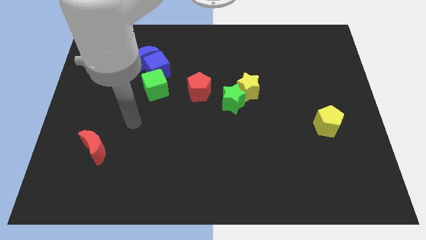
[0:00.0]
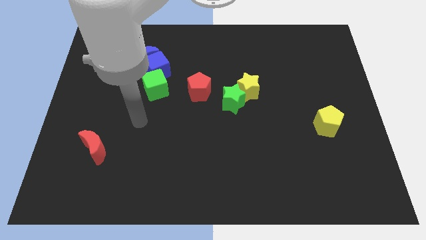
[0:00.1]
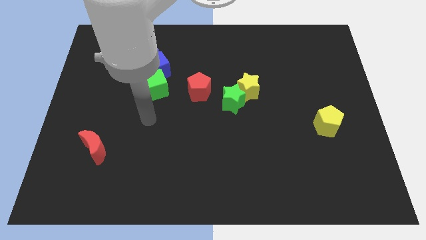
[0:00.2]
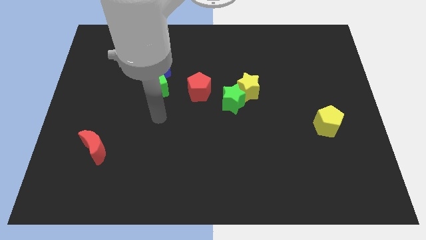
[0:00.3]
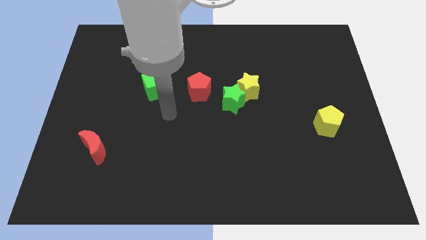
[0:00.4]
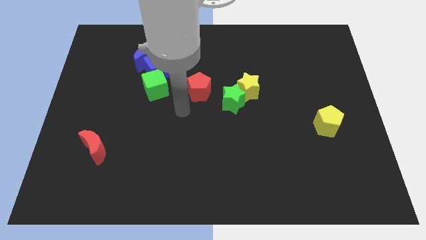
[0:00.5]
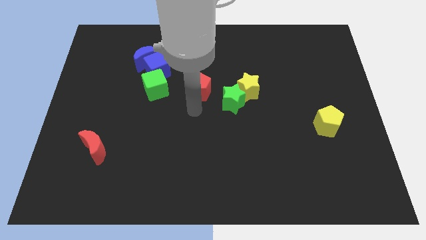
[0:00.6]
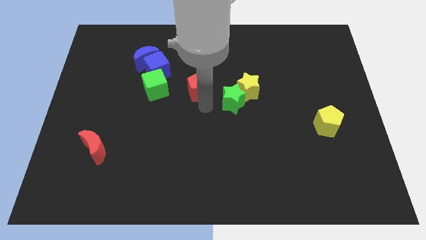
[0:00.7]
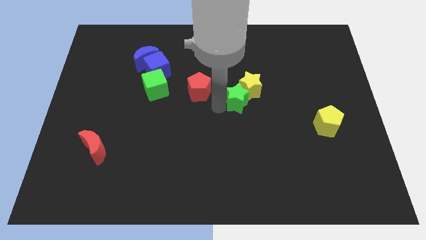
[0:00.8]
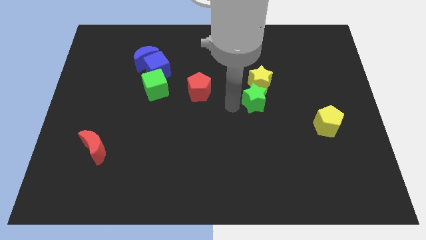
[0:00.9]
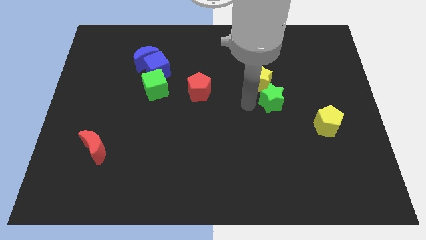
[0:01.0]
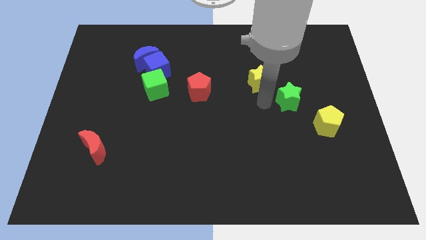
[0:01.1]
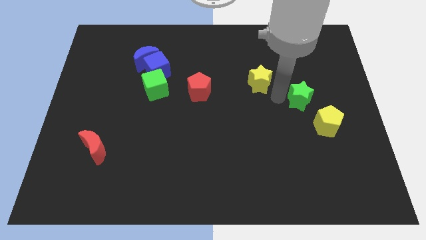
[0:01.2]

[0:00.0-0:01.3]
separate the yellow star from the green star

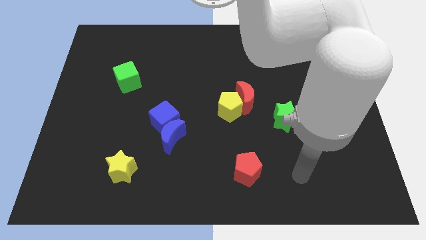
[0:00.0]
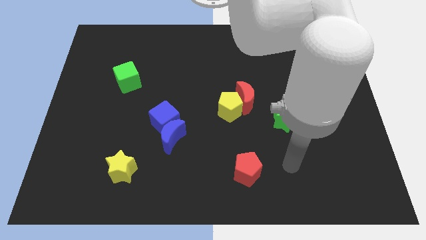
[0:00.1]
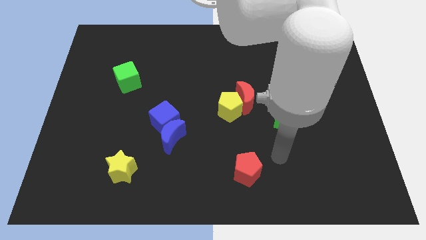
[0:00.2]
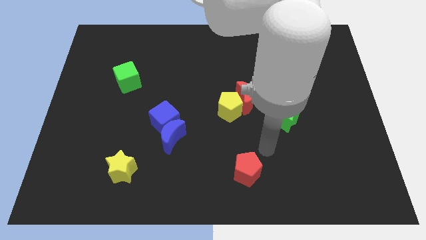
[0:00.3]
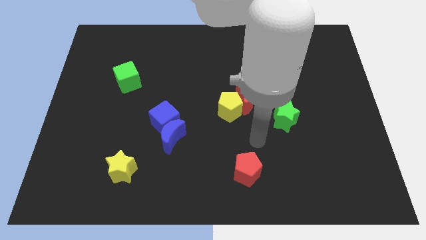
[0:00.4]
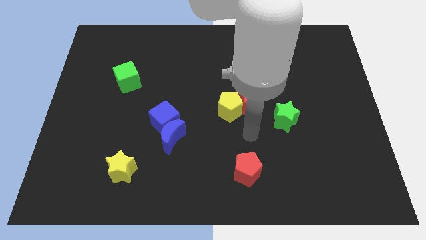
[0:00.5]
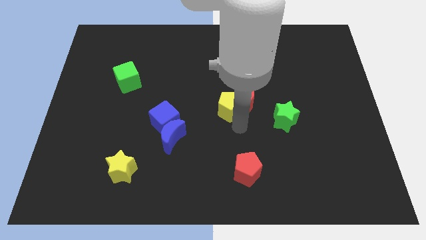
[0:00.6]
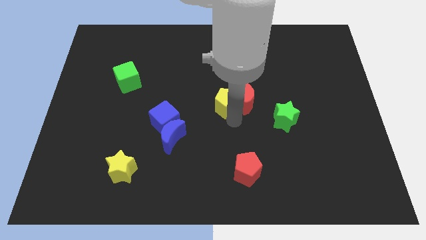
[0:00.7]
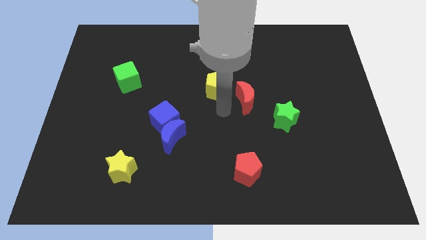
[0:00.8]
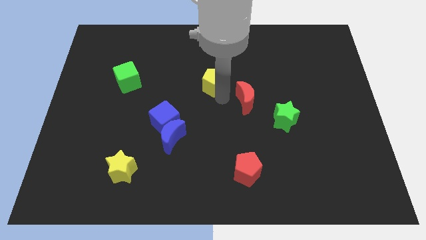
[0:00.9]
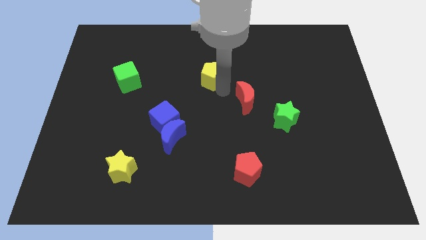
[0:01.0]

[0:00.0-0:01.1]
separate the red moon from the yellow pentagon

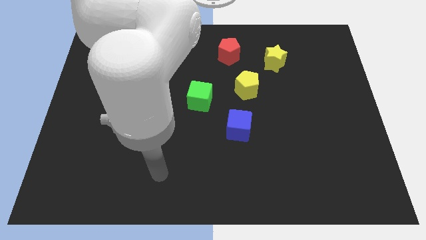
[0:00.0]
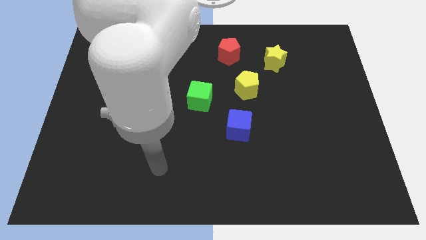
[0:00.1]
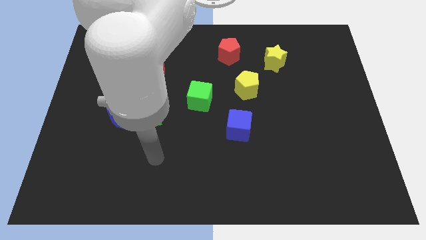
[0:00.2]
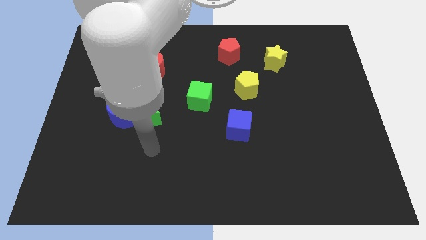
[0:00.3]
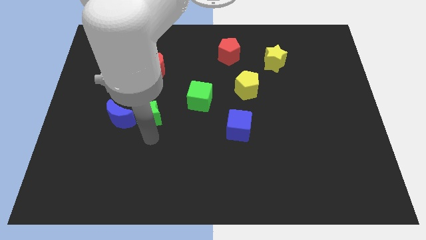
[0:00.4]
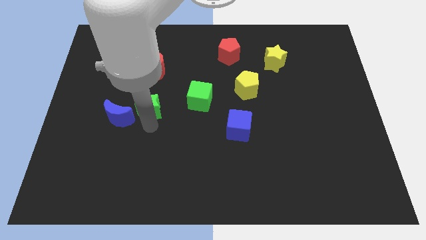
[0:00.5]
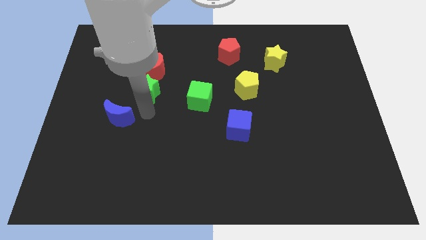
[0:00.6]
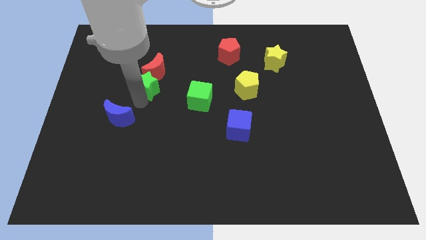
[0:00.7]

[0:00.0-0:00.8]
move the blue moon away from the green star

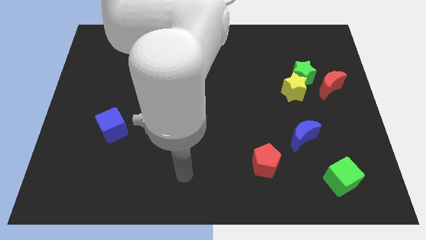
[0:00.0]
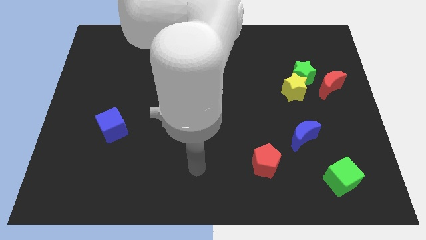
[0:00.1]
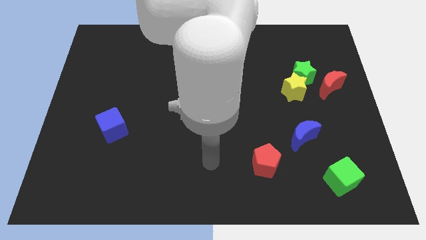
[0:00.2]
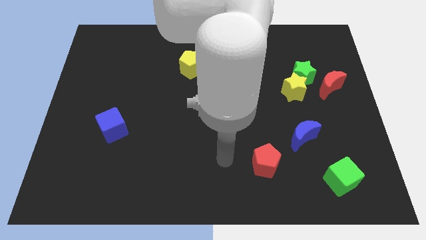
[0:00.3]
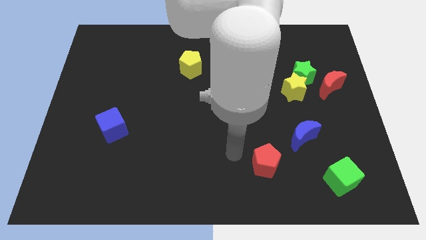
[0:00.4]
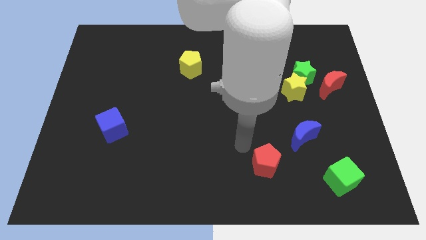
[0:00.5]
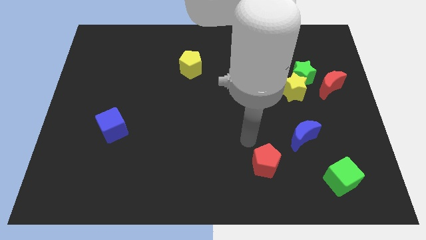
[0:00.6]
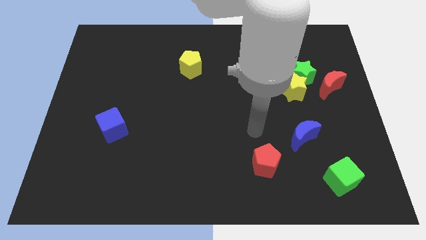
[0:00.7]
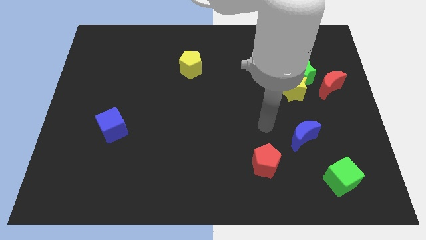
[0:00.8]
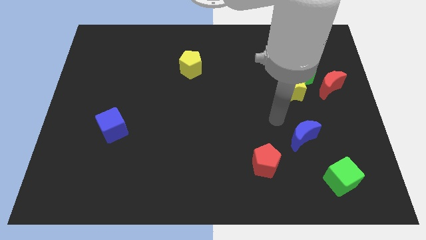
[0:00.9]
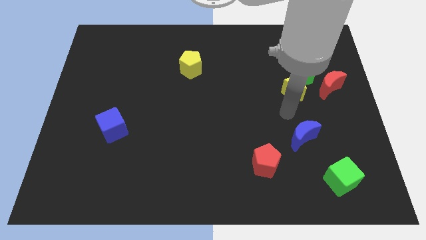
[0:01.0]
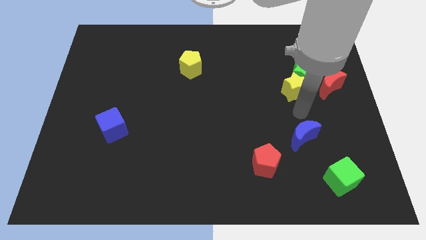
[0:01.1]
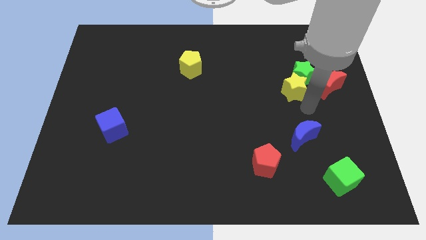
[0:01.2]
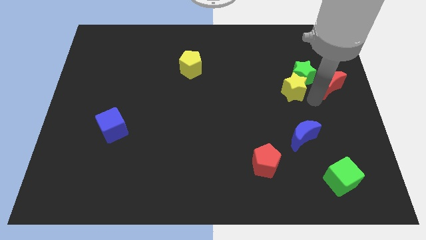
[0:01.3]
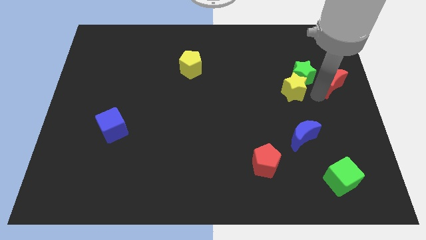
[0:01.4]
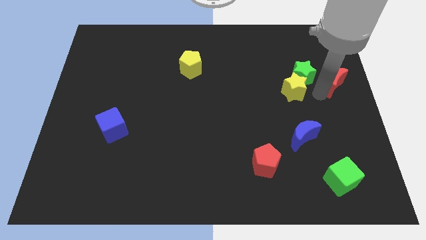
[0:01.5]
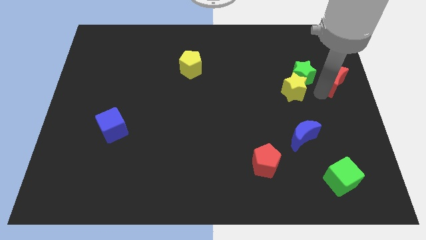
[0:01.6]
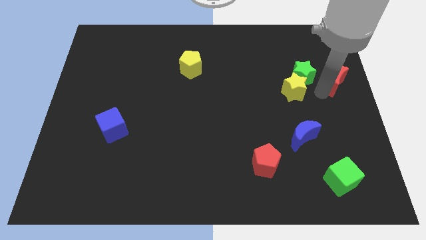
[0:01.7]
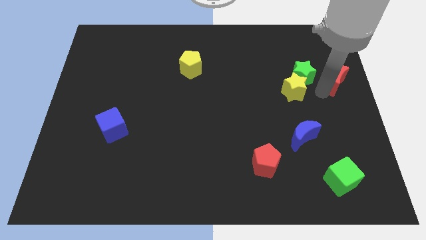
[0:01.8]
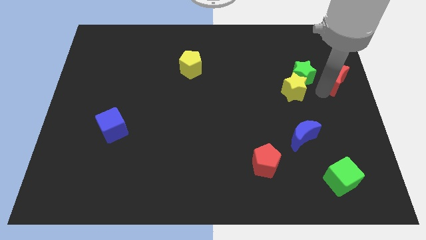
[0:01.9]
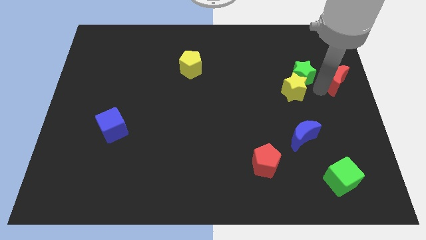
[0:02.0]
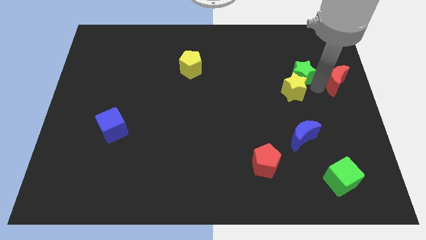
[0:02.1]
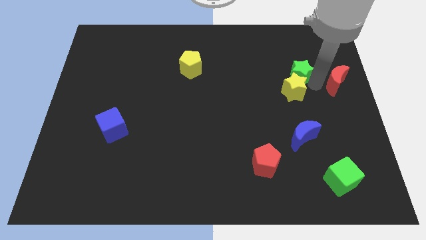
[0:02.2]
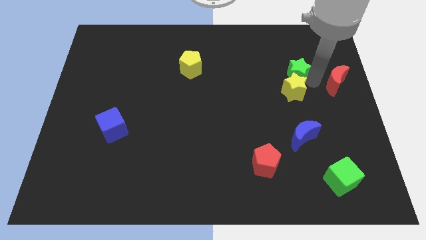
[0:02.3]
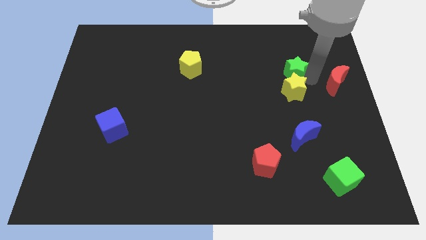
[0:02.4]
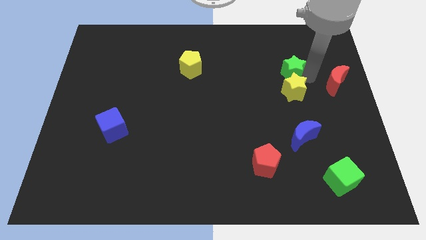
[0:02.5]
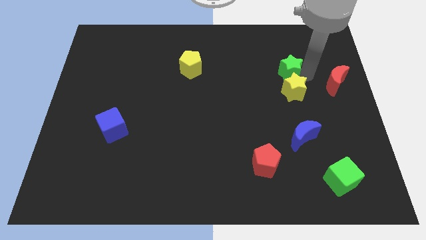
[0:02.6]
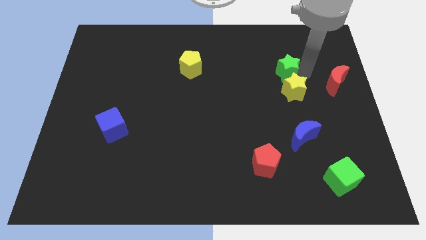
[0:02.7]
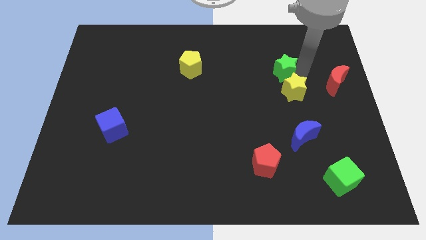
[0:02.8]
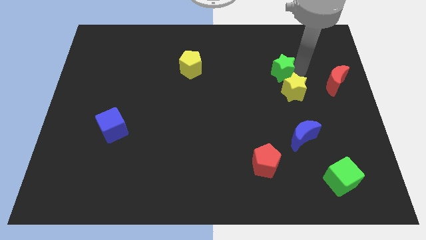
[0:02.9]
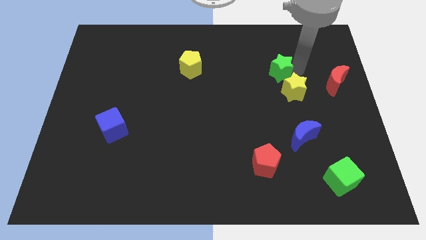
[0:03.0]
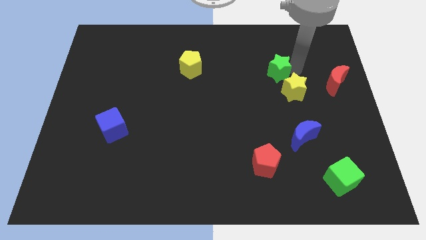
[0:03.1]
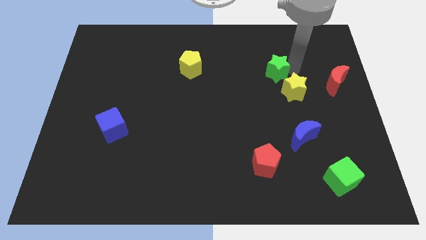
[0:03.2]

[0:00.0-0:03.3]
separate the green star from the yellow star and red moon

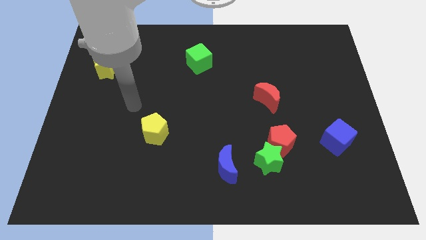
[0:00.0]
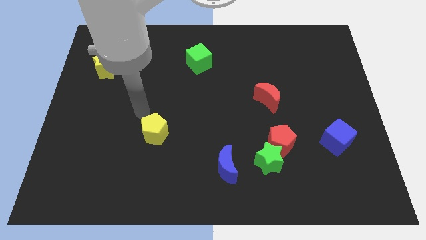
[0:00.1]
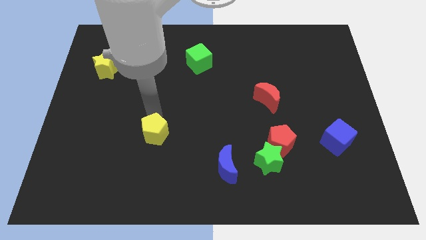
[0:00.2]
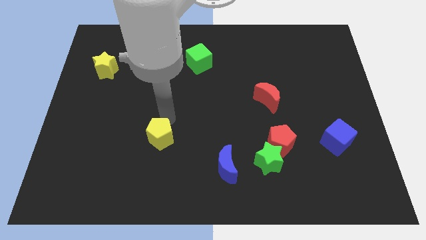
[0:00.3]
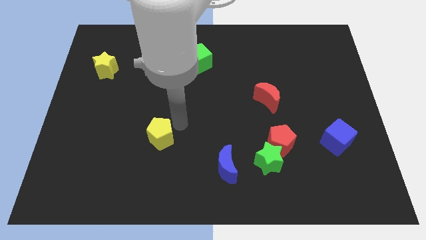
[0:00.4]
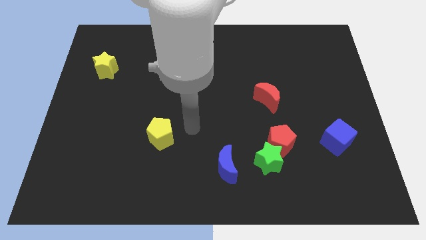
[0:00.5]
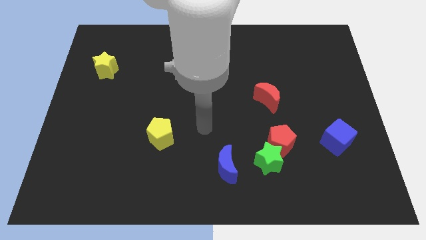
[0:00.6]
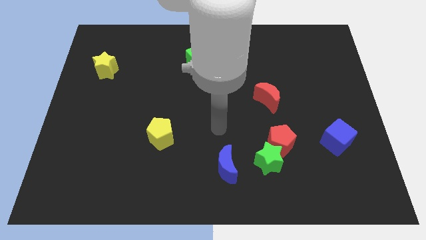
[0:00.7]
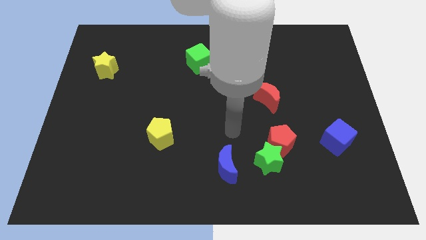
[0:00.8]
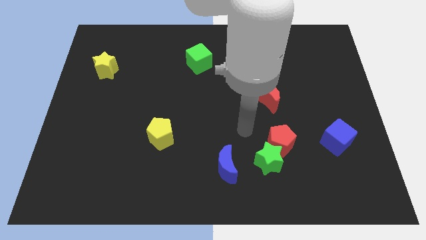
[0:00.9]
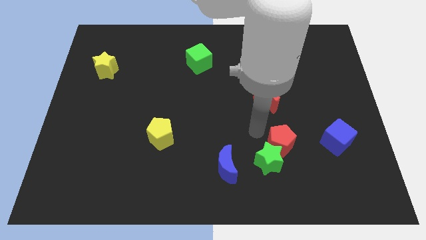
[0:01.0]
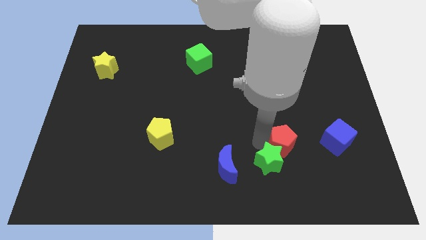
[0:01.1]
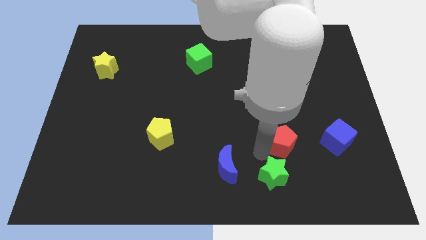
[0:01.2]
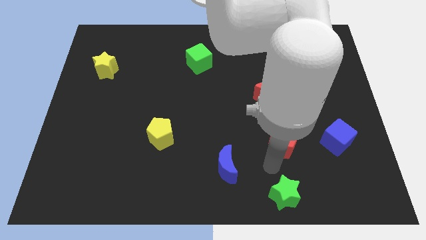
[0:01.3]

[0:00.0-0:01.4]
move the red pentagon away from the green star

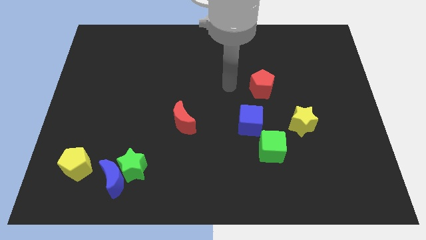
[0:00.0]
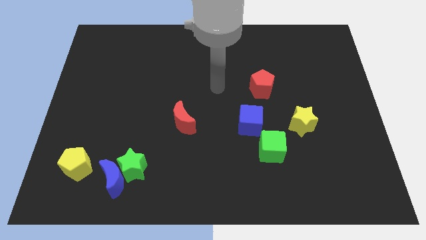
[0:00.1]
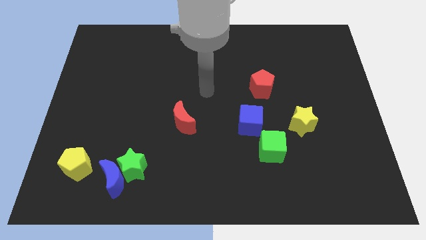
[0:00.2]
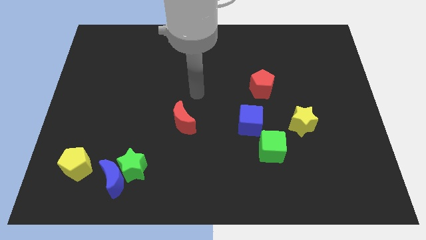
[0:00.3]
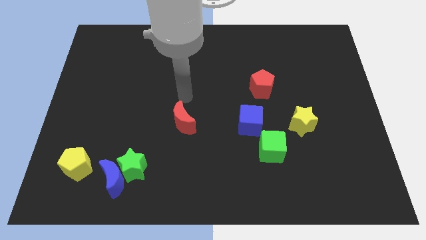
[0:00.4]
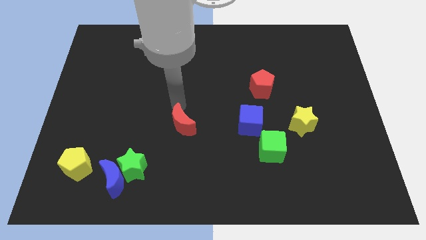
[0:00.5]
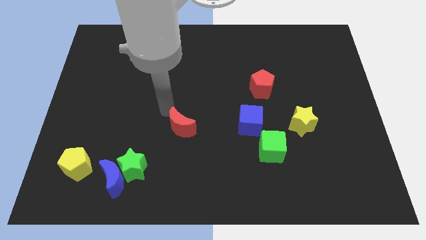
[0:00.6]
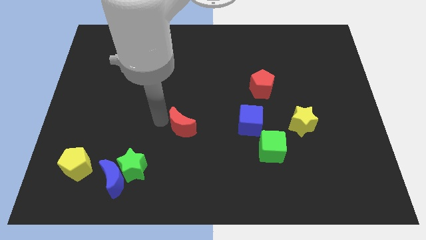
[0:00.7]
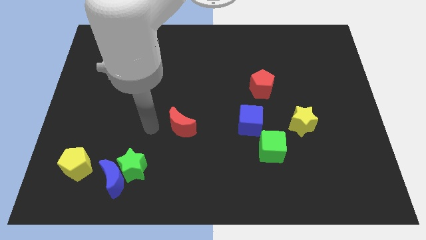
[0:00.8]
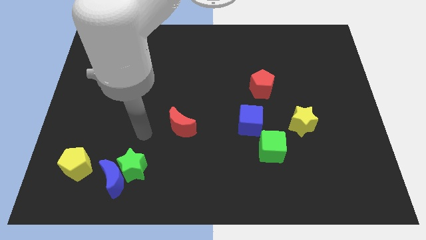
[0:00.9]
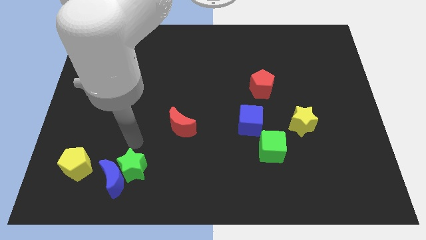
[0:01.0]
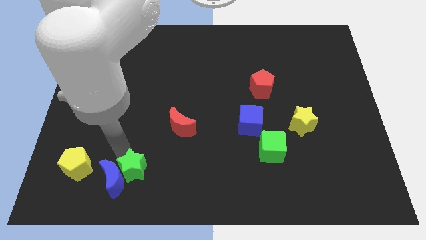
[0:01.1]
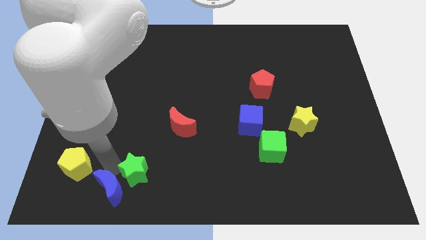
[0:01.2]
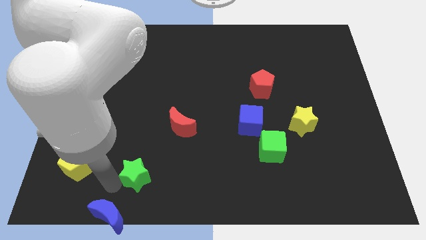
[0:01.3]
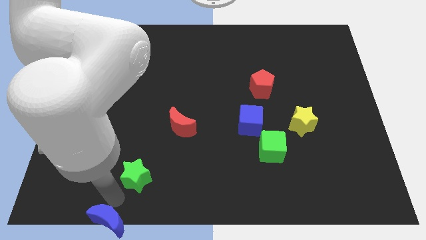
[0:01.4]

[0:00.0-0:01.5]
move the green star away from the blue moon
